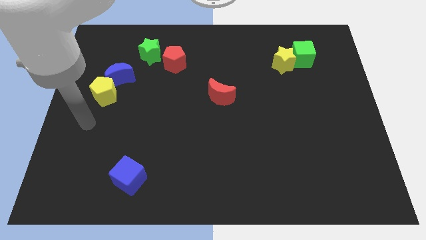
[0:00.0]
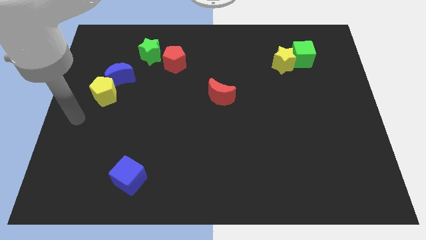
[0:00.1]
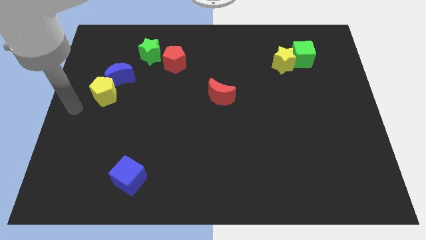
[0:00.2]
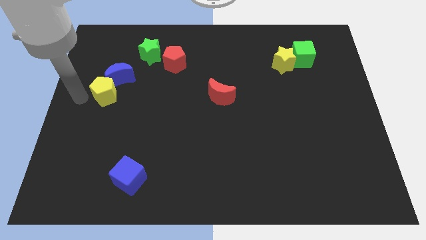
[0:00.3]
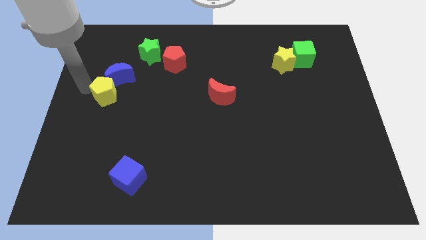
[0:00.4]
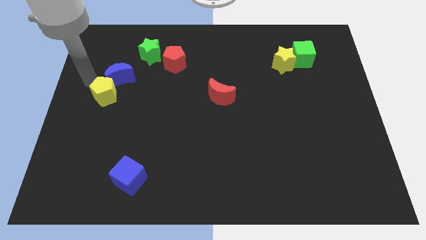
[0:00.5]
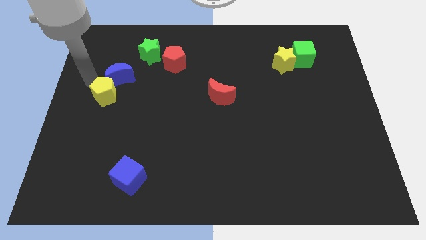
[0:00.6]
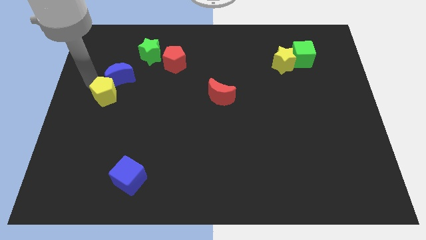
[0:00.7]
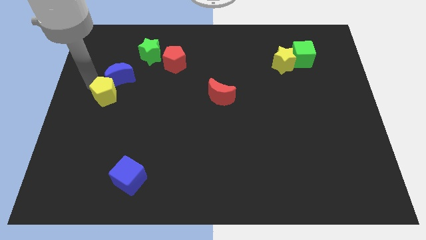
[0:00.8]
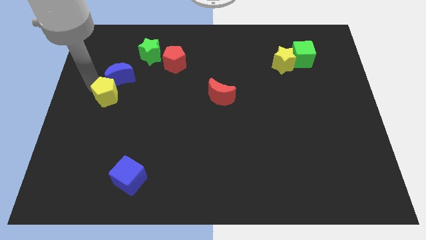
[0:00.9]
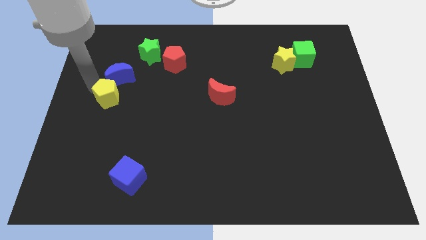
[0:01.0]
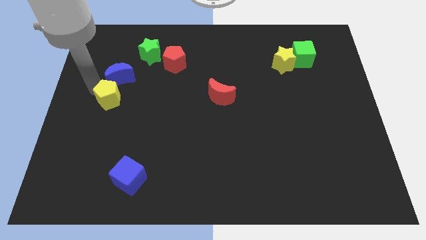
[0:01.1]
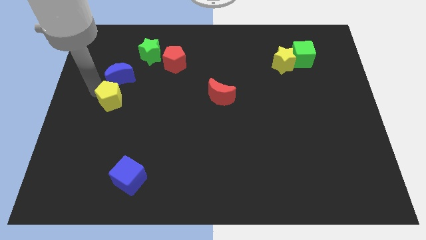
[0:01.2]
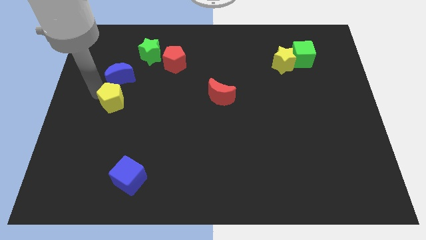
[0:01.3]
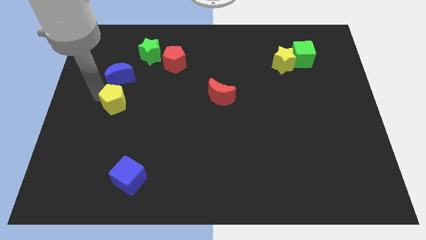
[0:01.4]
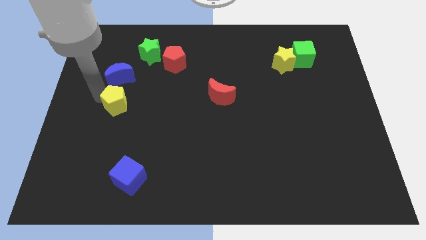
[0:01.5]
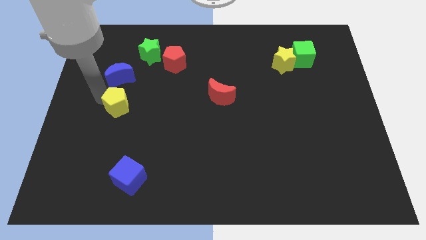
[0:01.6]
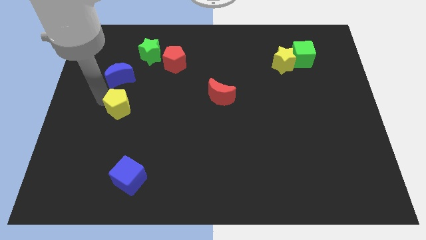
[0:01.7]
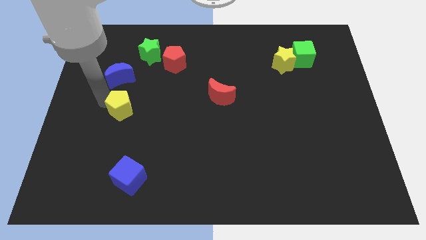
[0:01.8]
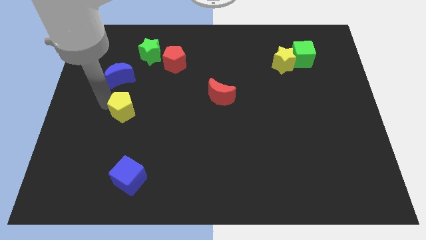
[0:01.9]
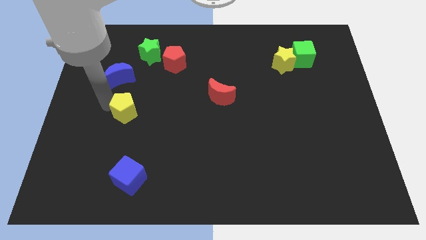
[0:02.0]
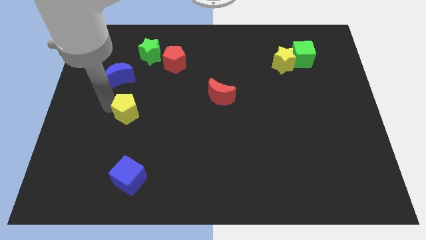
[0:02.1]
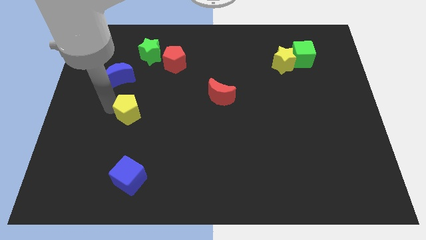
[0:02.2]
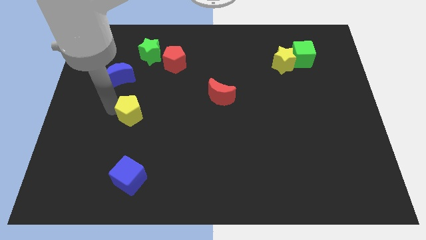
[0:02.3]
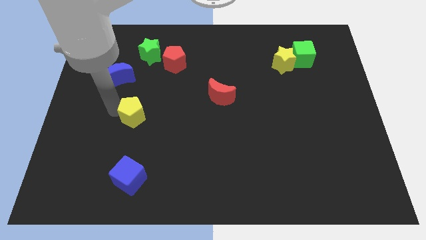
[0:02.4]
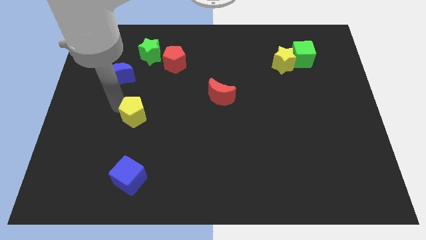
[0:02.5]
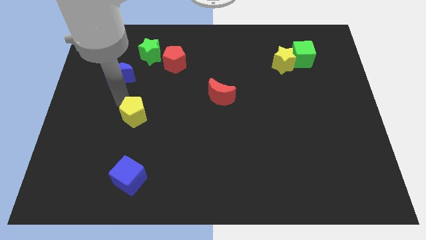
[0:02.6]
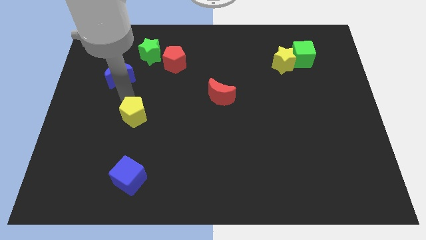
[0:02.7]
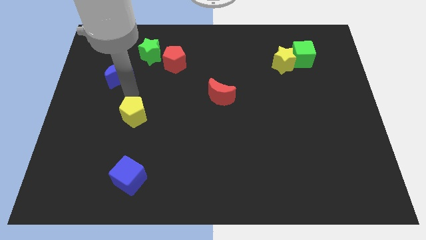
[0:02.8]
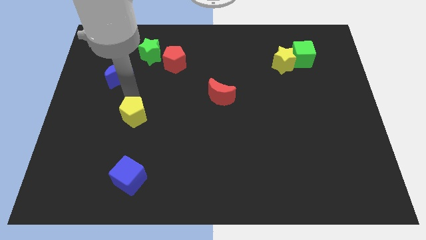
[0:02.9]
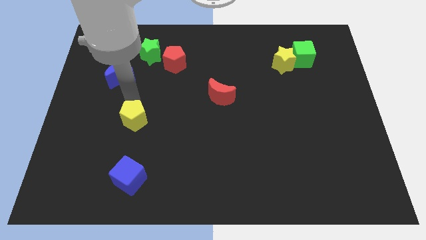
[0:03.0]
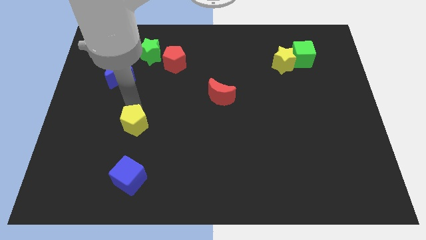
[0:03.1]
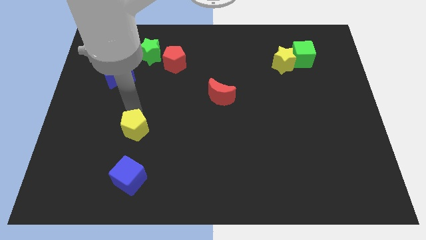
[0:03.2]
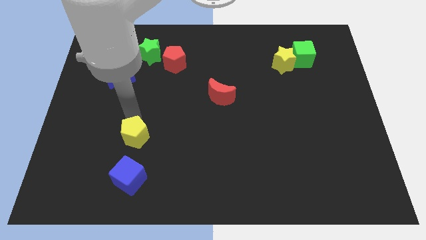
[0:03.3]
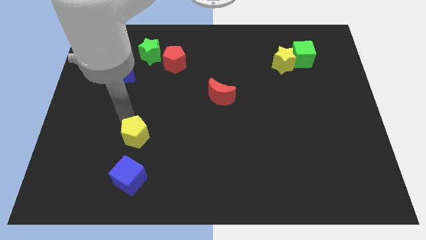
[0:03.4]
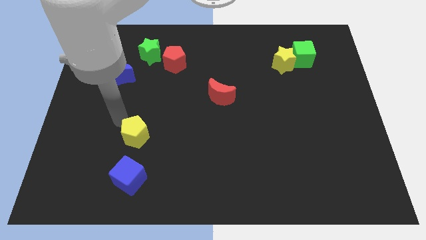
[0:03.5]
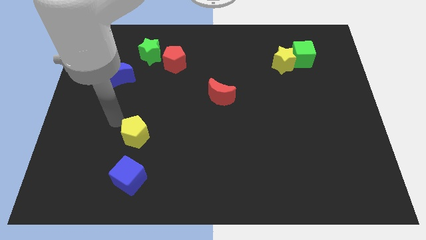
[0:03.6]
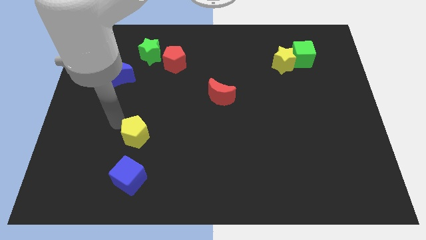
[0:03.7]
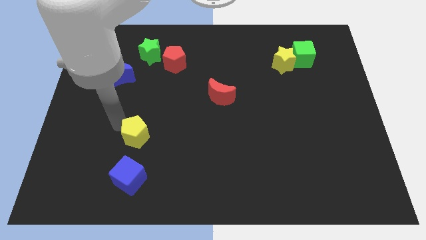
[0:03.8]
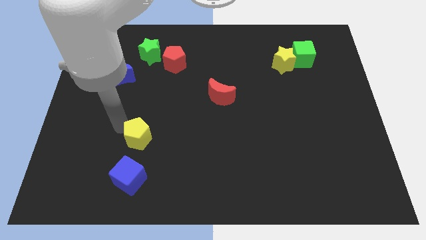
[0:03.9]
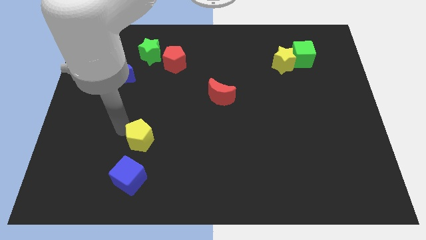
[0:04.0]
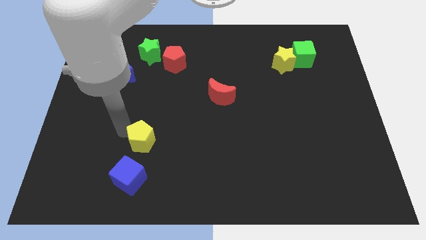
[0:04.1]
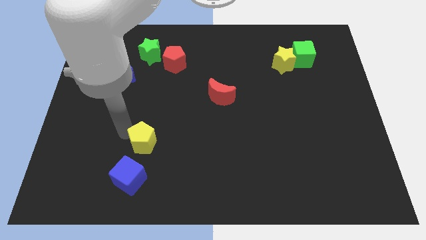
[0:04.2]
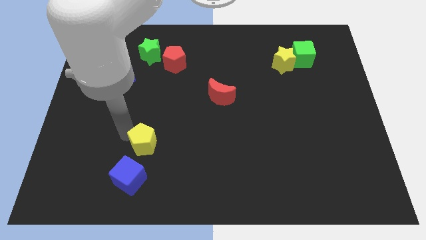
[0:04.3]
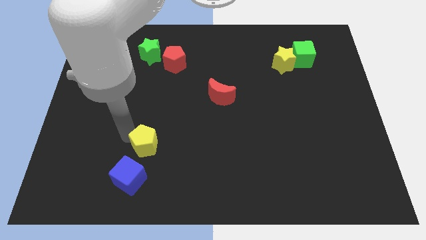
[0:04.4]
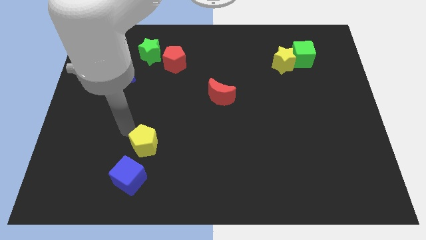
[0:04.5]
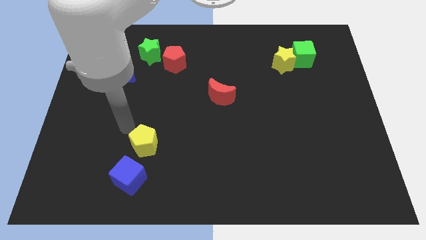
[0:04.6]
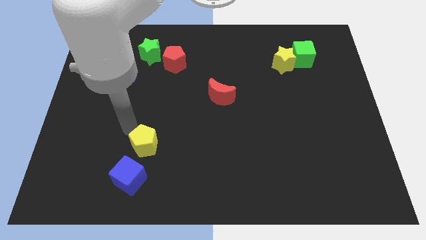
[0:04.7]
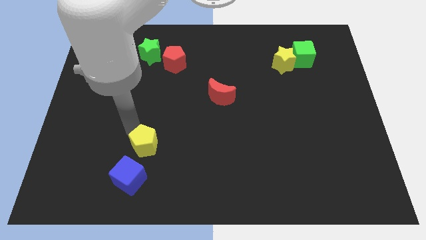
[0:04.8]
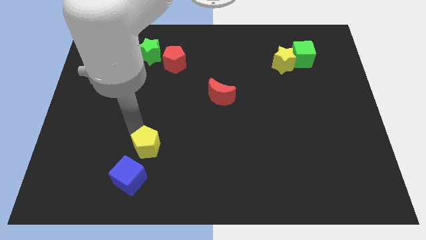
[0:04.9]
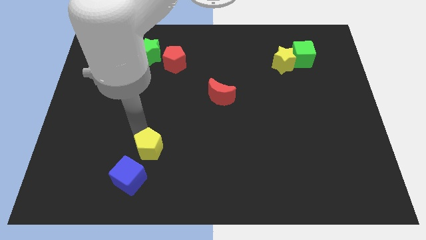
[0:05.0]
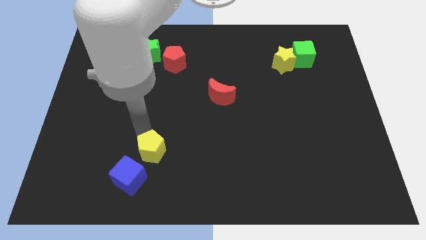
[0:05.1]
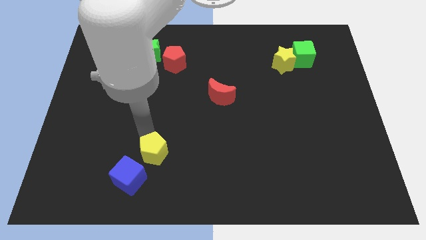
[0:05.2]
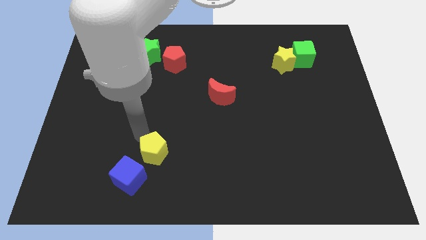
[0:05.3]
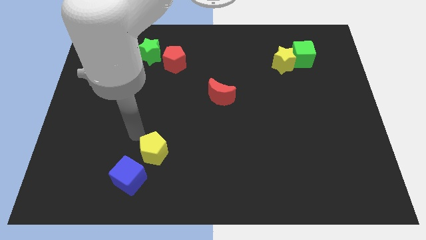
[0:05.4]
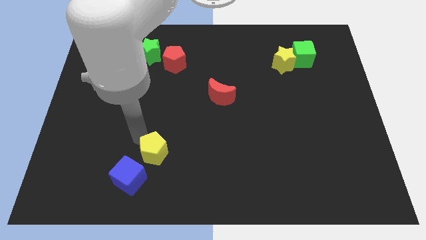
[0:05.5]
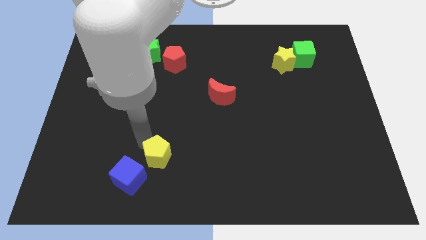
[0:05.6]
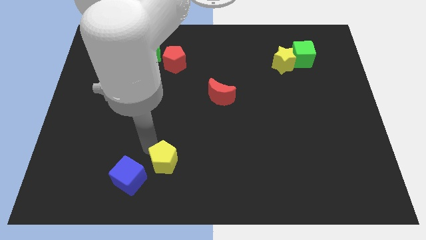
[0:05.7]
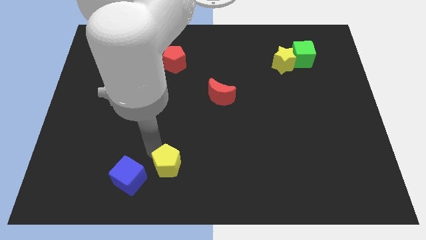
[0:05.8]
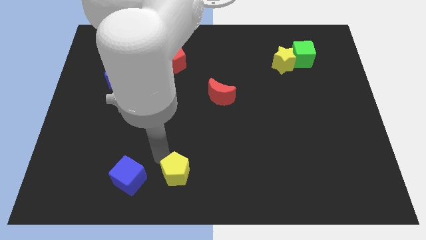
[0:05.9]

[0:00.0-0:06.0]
move the yellow pentagon to the bottom side
